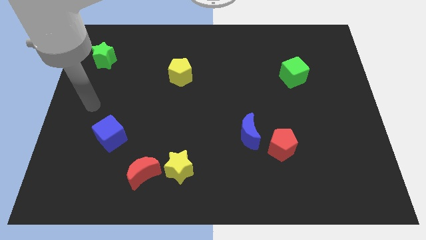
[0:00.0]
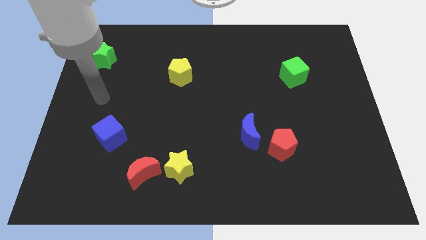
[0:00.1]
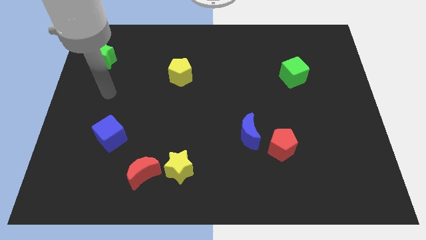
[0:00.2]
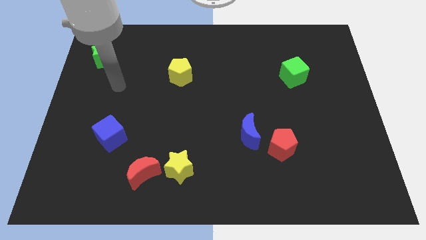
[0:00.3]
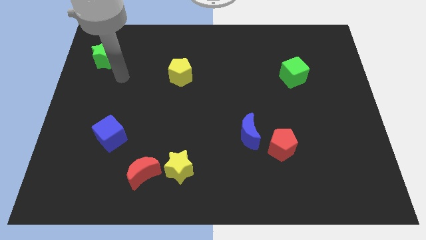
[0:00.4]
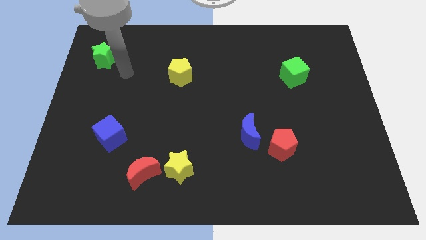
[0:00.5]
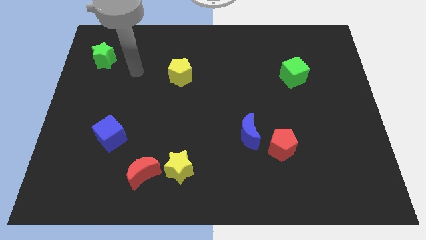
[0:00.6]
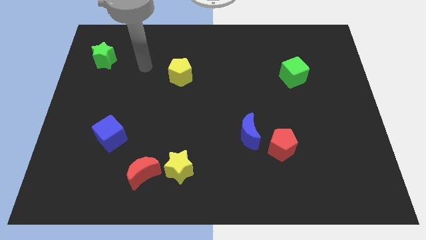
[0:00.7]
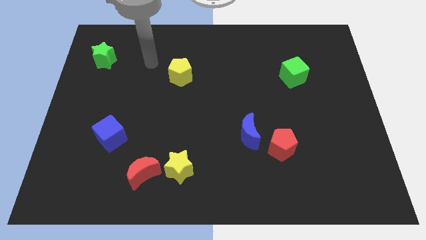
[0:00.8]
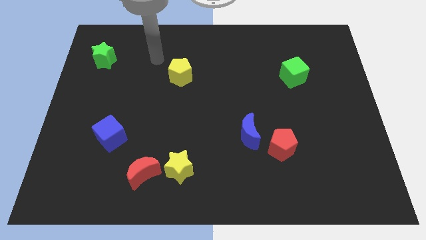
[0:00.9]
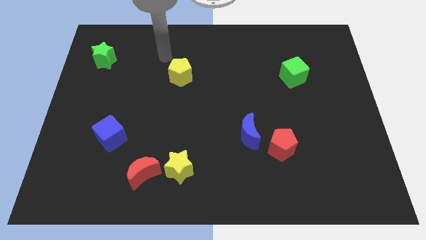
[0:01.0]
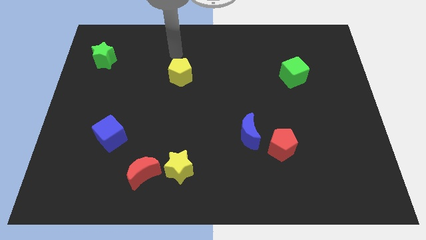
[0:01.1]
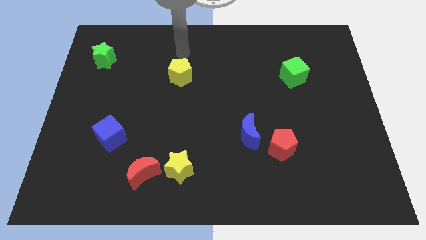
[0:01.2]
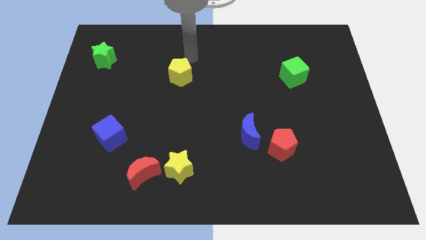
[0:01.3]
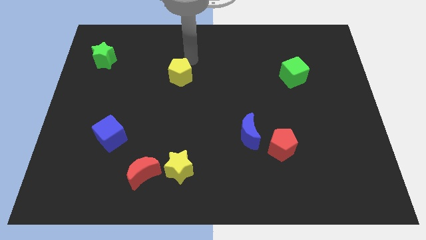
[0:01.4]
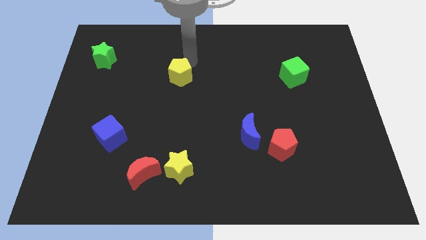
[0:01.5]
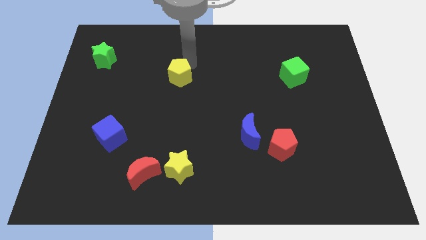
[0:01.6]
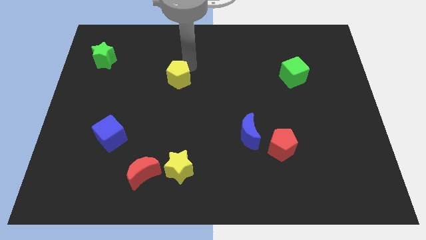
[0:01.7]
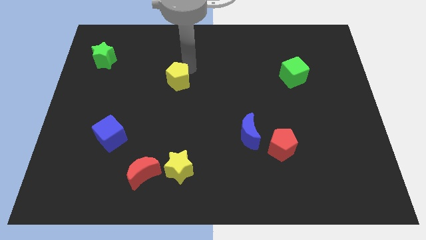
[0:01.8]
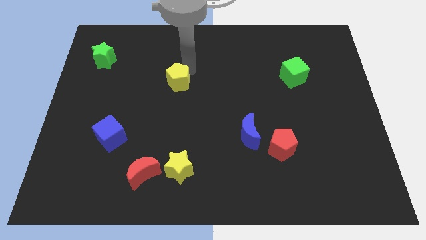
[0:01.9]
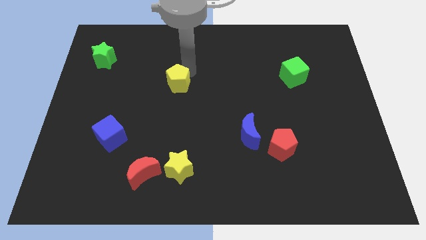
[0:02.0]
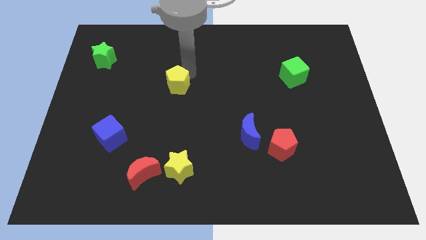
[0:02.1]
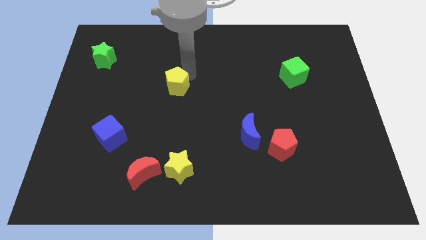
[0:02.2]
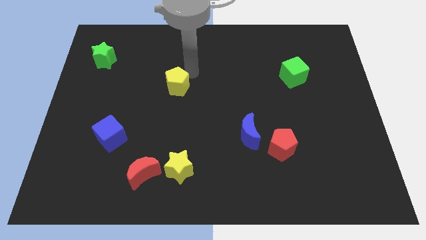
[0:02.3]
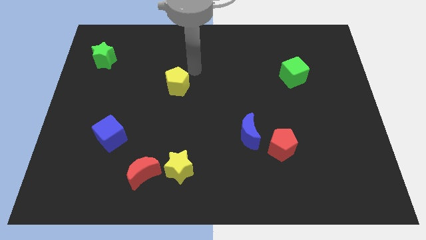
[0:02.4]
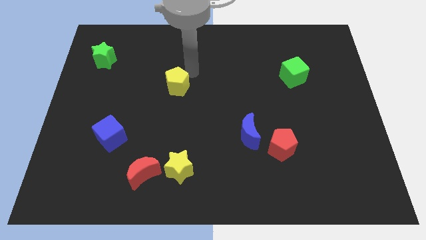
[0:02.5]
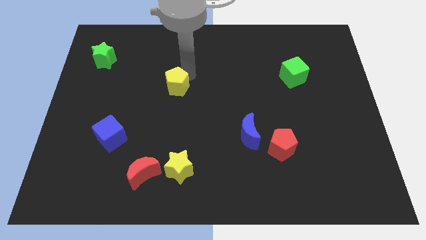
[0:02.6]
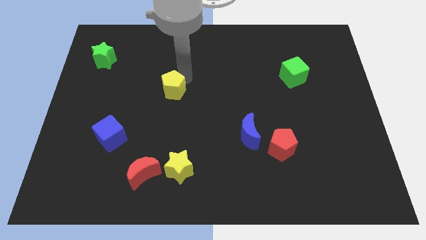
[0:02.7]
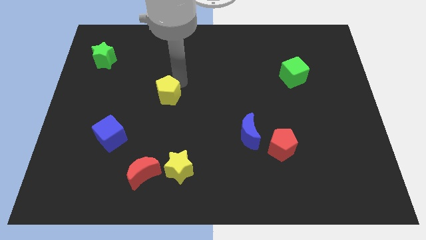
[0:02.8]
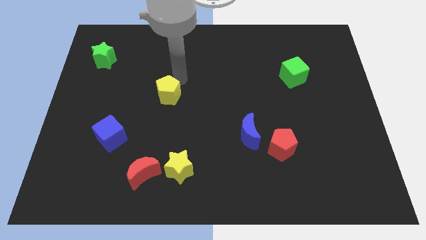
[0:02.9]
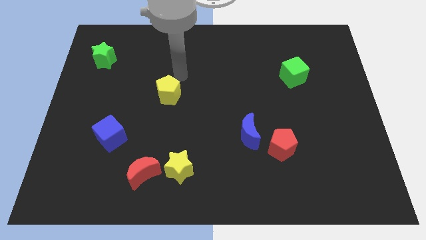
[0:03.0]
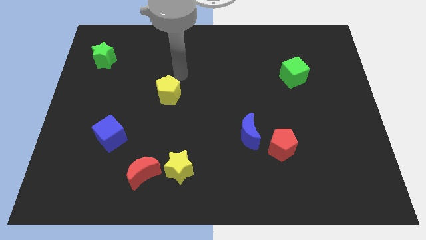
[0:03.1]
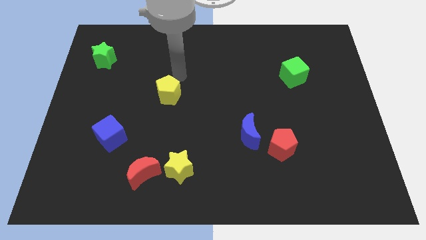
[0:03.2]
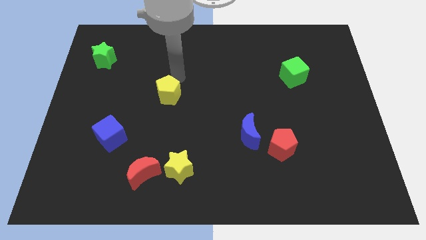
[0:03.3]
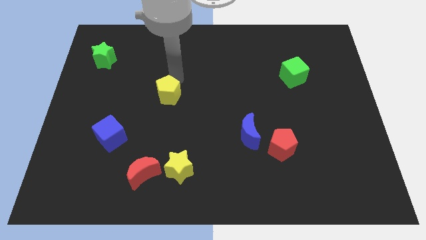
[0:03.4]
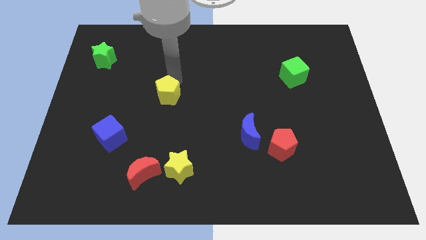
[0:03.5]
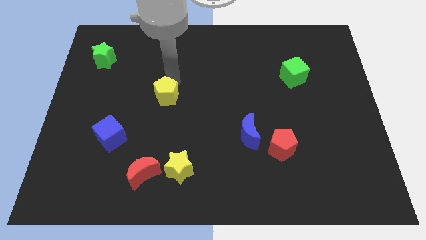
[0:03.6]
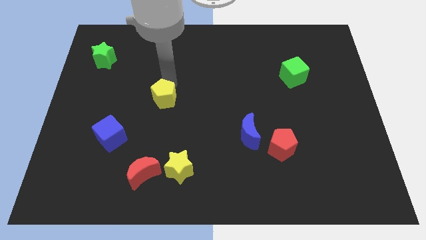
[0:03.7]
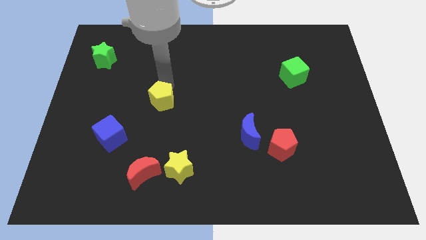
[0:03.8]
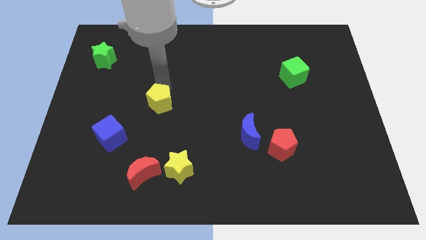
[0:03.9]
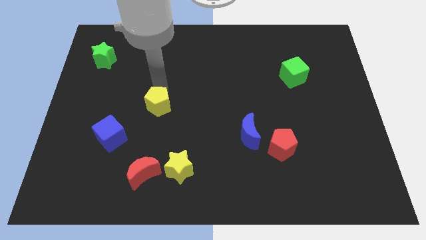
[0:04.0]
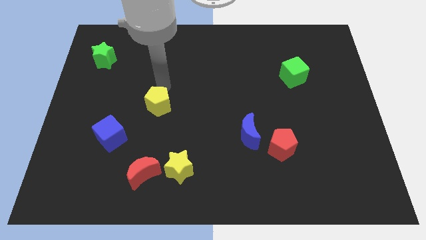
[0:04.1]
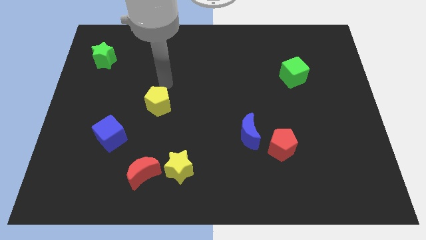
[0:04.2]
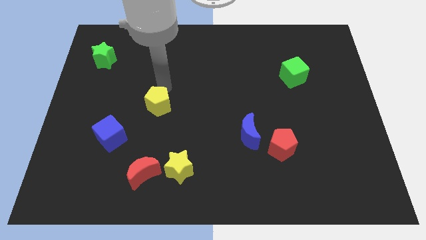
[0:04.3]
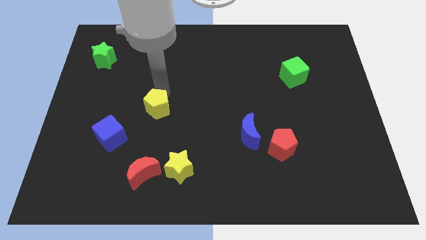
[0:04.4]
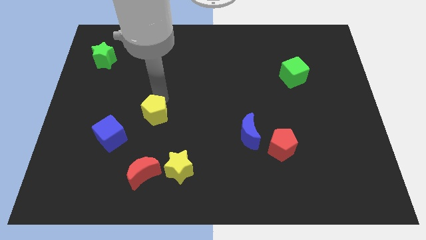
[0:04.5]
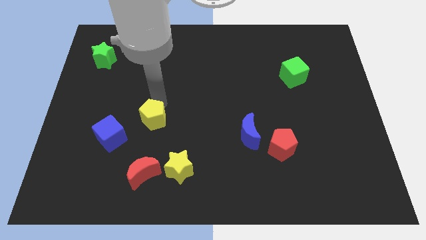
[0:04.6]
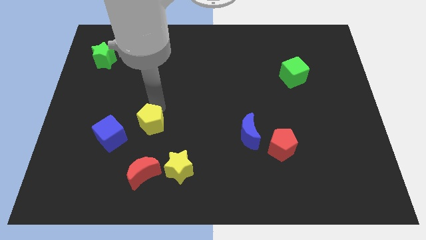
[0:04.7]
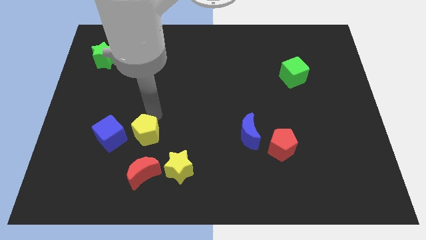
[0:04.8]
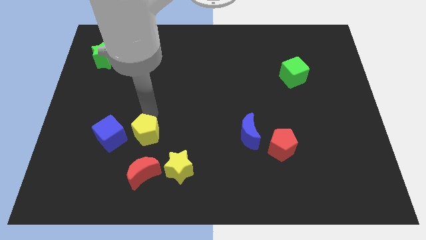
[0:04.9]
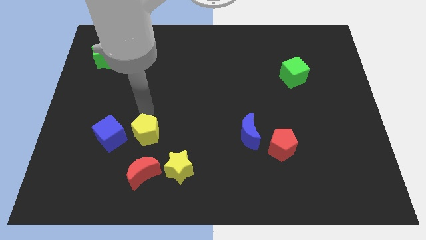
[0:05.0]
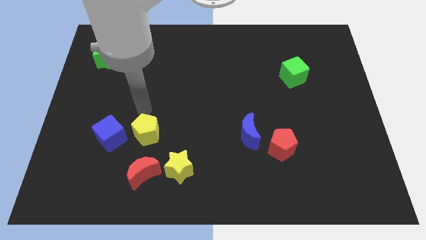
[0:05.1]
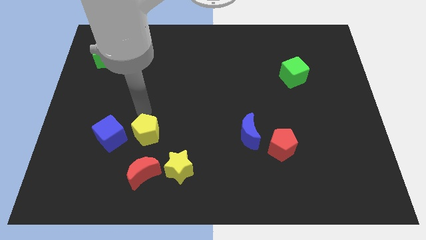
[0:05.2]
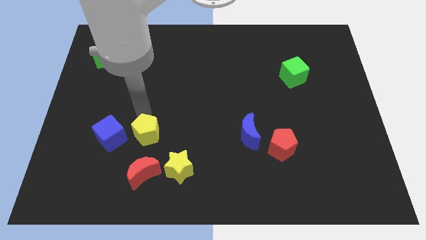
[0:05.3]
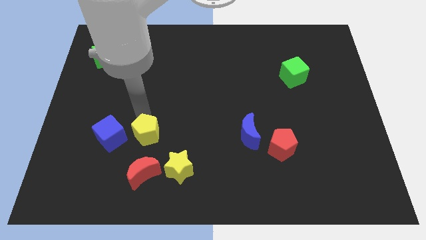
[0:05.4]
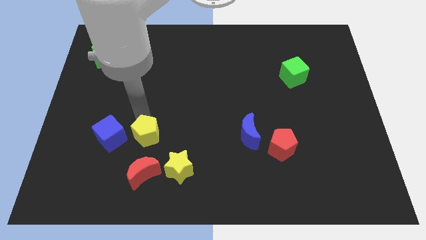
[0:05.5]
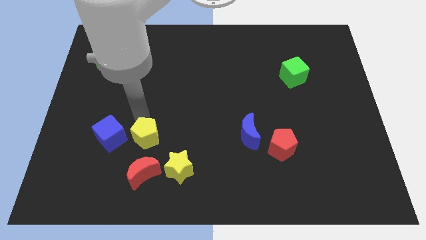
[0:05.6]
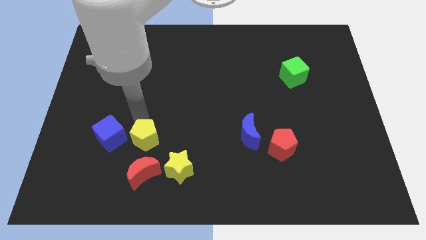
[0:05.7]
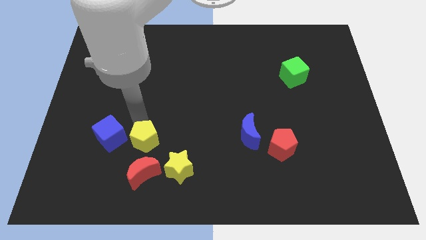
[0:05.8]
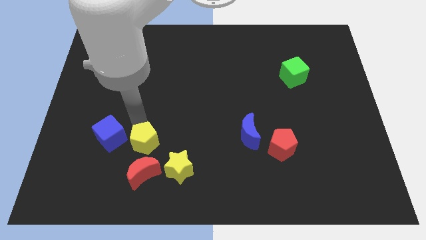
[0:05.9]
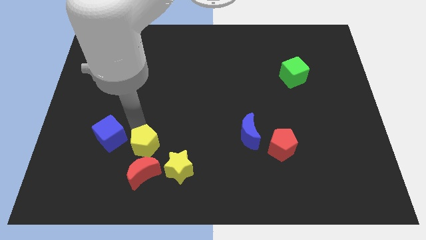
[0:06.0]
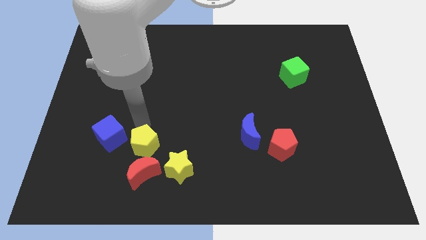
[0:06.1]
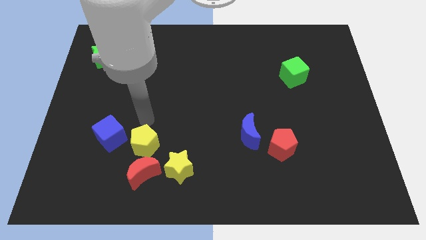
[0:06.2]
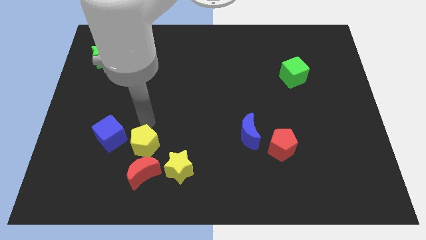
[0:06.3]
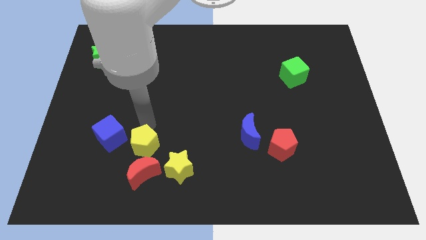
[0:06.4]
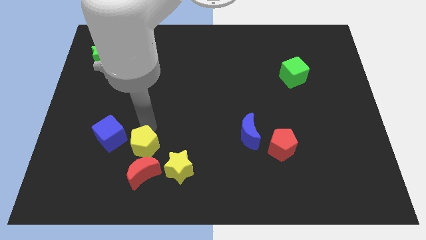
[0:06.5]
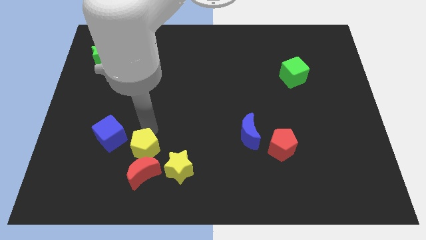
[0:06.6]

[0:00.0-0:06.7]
push the yellow pentagon next to the red moon
